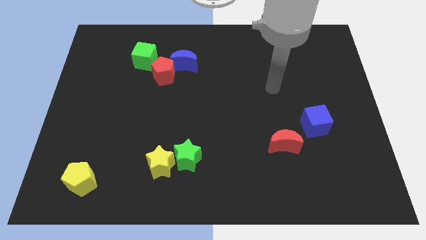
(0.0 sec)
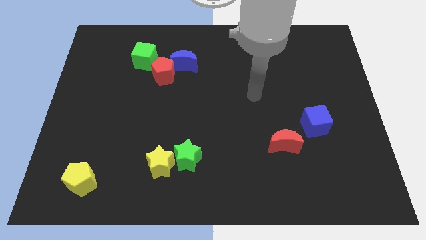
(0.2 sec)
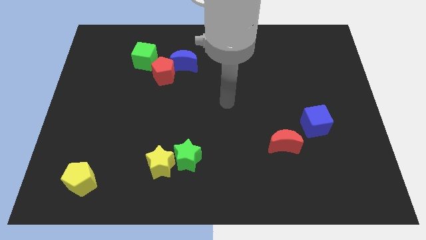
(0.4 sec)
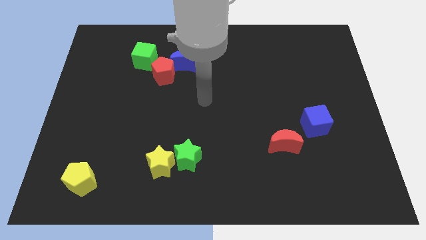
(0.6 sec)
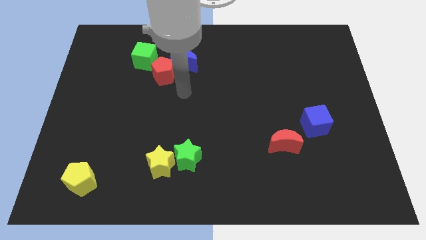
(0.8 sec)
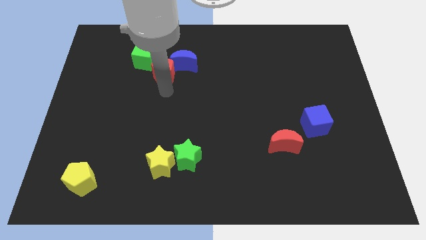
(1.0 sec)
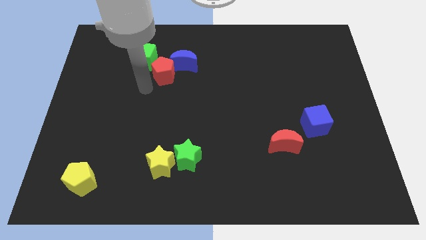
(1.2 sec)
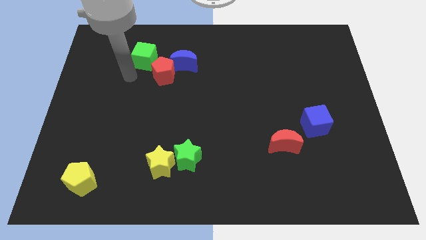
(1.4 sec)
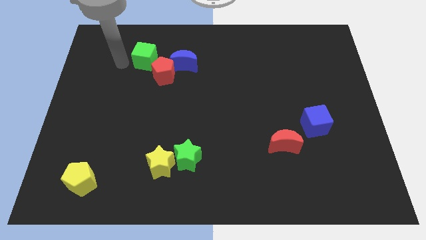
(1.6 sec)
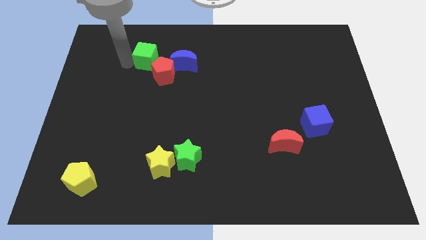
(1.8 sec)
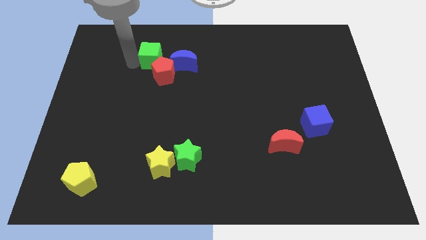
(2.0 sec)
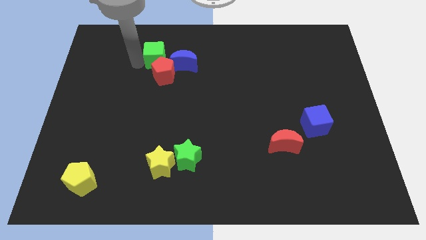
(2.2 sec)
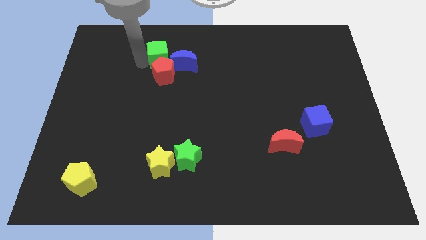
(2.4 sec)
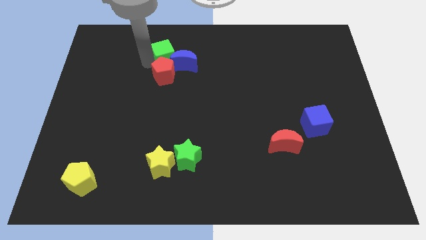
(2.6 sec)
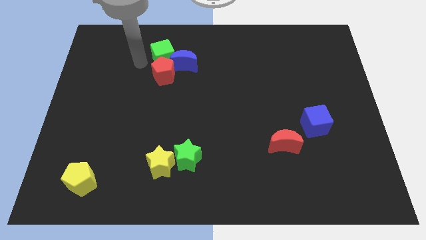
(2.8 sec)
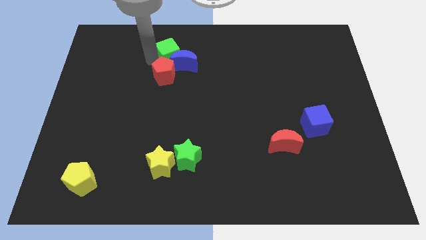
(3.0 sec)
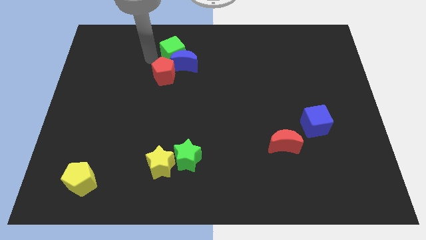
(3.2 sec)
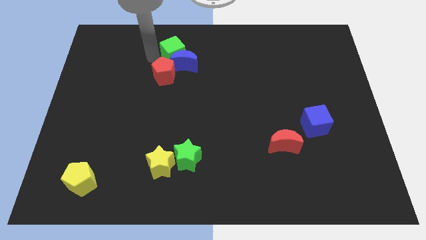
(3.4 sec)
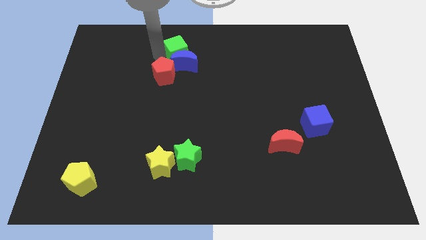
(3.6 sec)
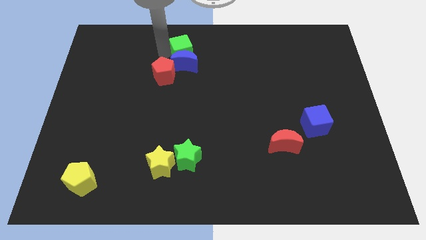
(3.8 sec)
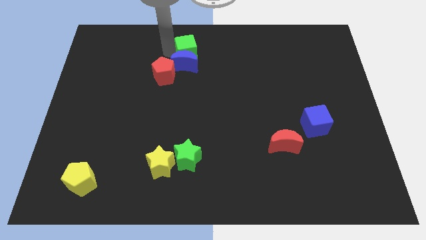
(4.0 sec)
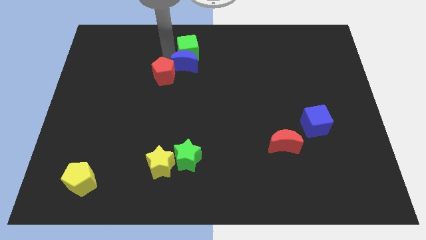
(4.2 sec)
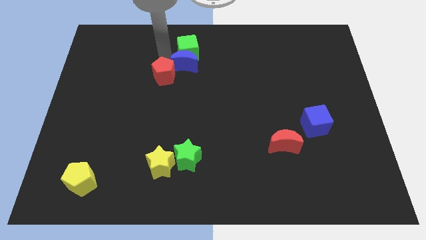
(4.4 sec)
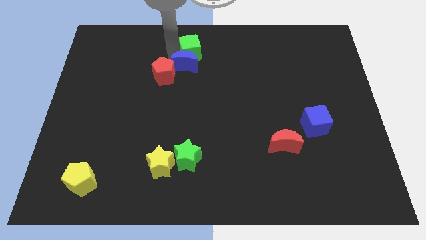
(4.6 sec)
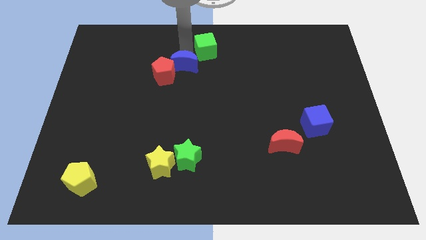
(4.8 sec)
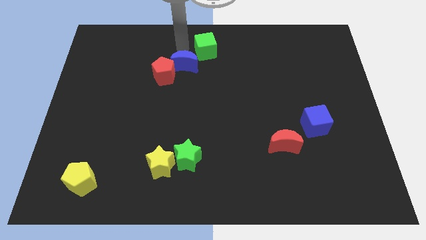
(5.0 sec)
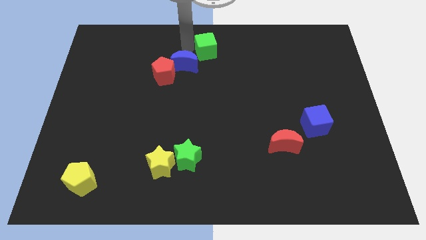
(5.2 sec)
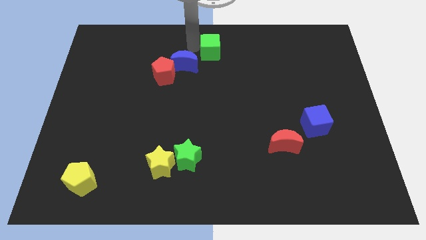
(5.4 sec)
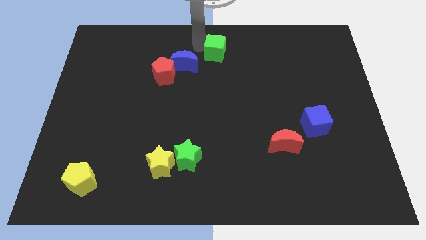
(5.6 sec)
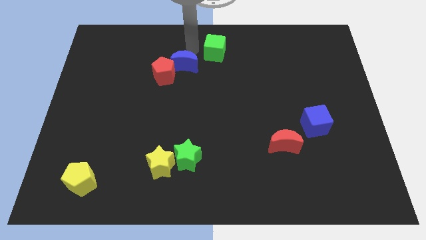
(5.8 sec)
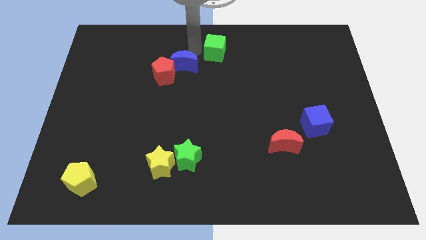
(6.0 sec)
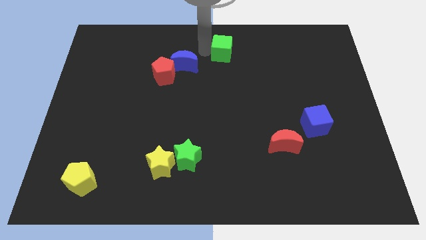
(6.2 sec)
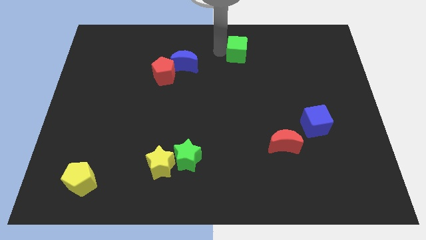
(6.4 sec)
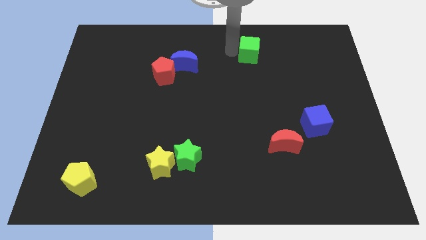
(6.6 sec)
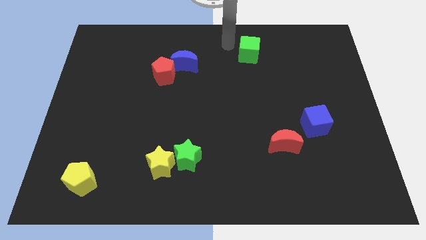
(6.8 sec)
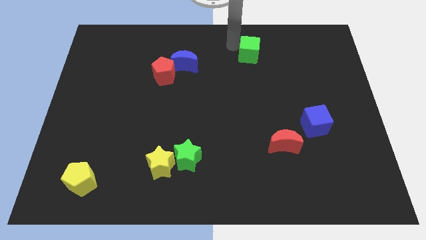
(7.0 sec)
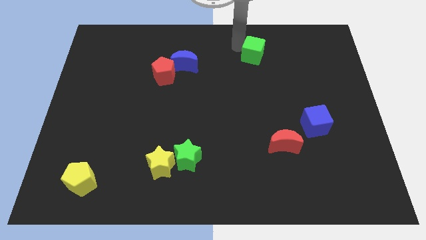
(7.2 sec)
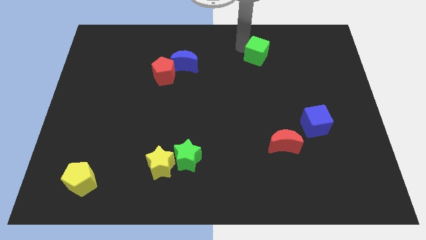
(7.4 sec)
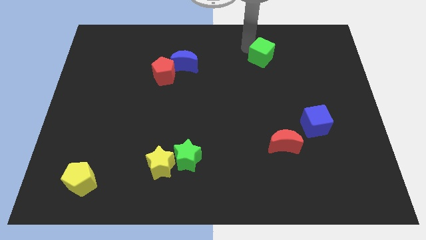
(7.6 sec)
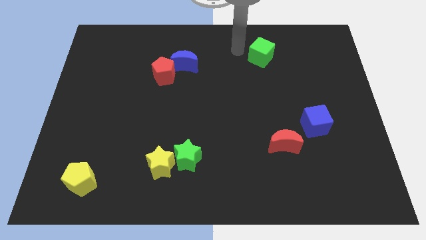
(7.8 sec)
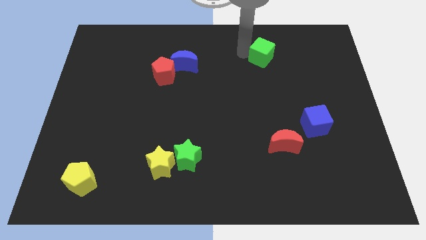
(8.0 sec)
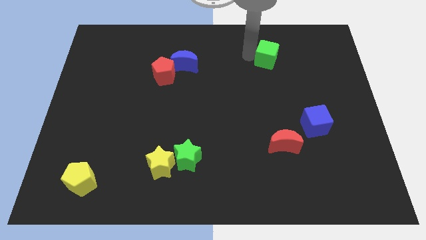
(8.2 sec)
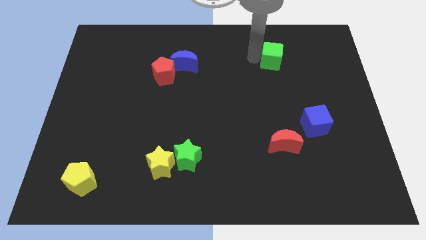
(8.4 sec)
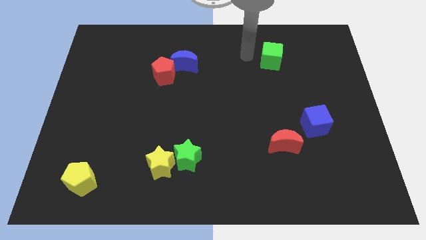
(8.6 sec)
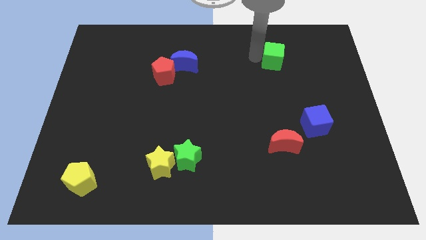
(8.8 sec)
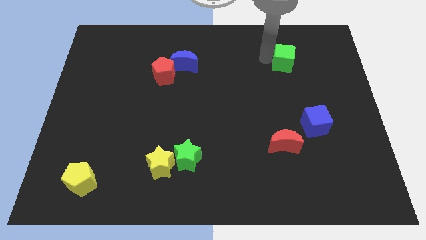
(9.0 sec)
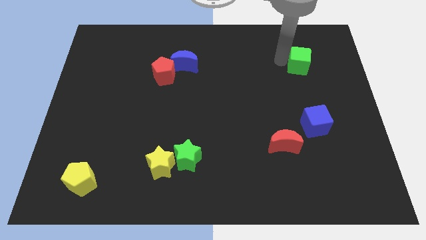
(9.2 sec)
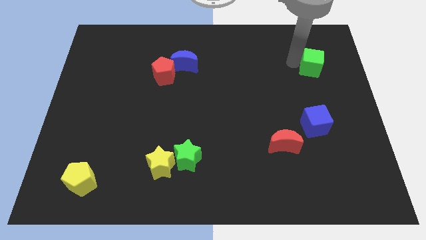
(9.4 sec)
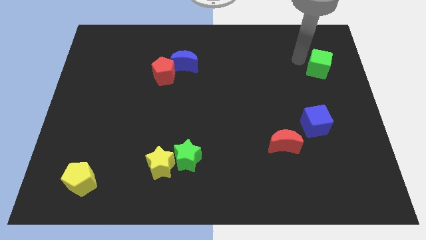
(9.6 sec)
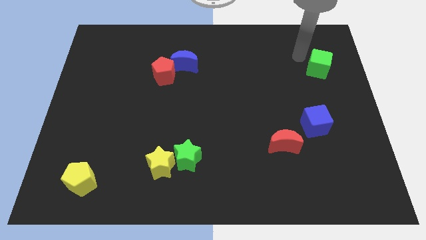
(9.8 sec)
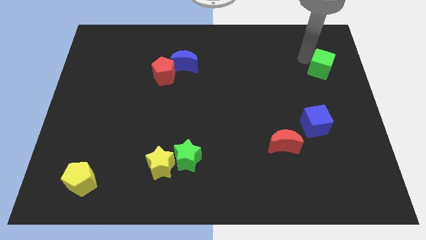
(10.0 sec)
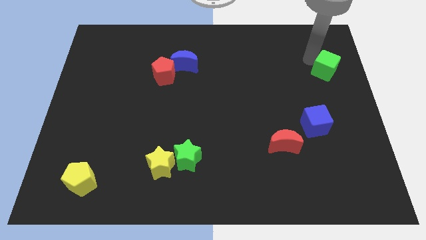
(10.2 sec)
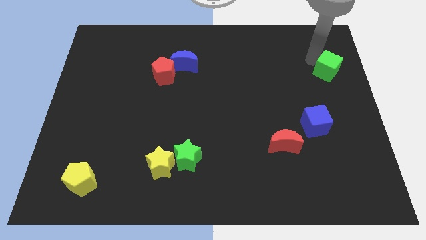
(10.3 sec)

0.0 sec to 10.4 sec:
put the green cube to the right side
